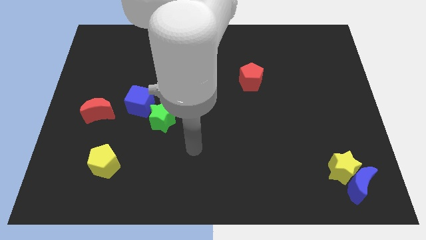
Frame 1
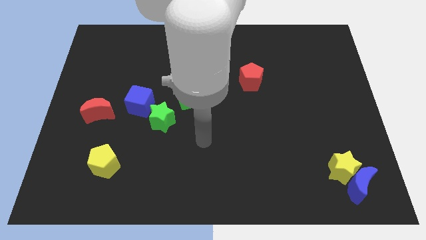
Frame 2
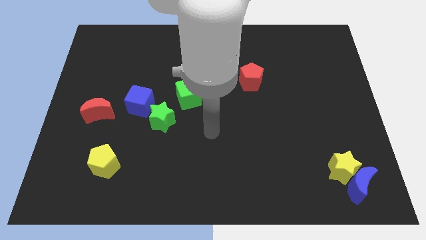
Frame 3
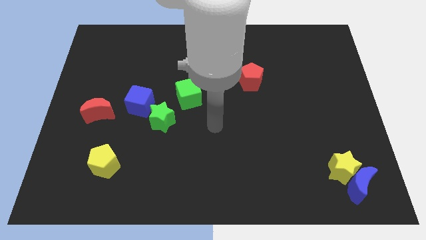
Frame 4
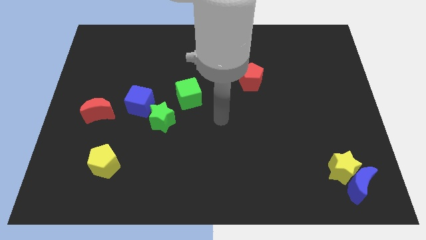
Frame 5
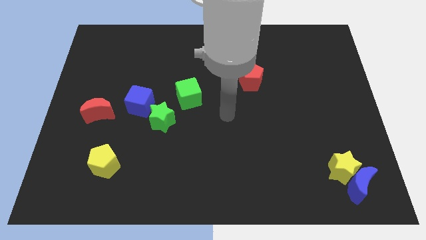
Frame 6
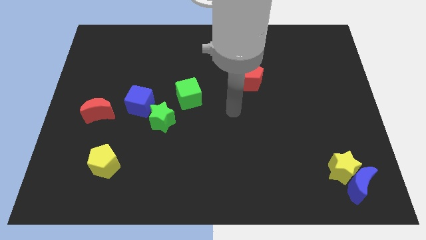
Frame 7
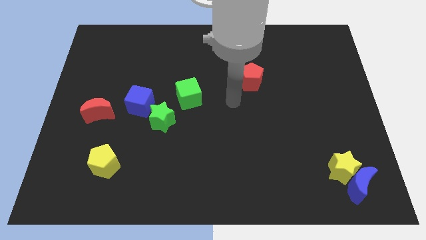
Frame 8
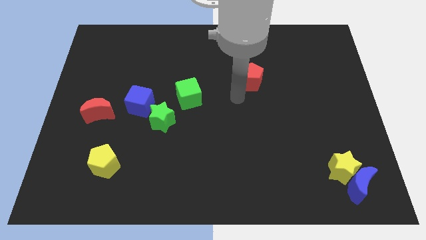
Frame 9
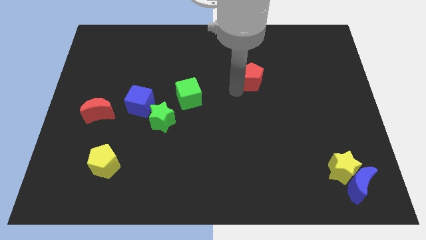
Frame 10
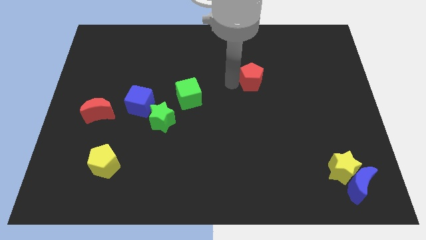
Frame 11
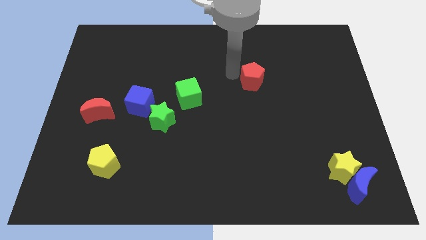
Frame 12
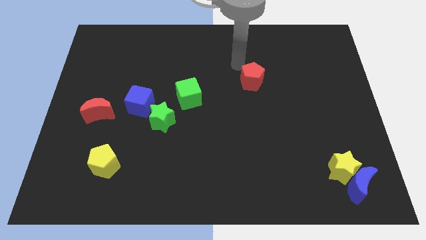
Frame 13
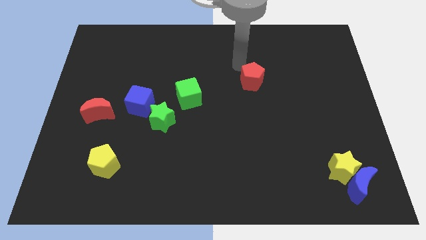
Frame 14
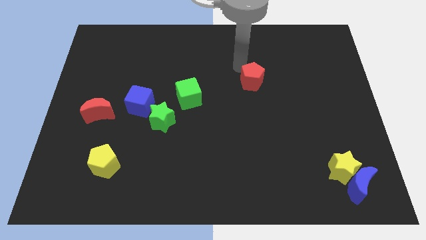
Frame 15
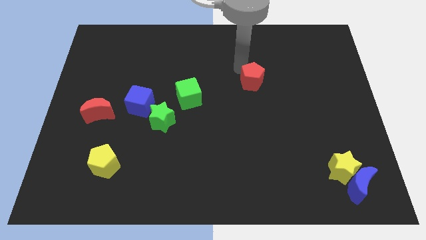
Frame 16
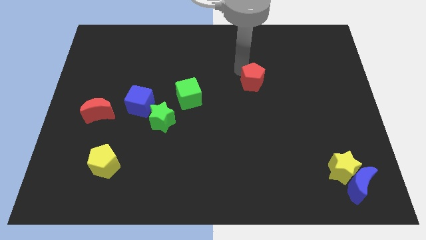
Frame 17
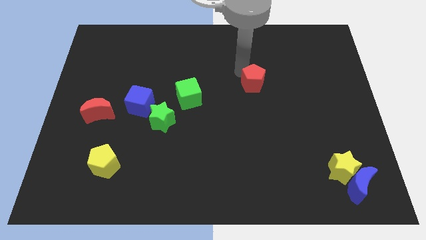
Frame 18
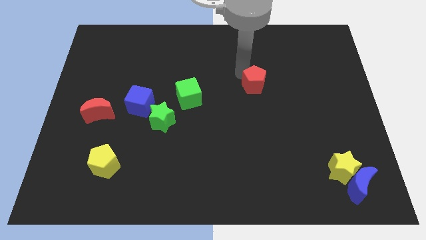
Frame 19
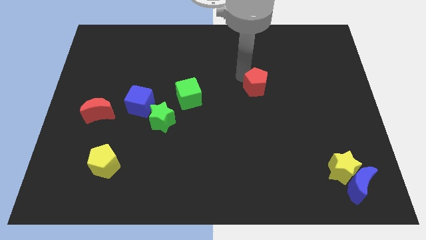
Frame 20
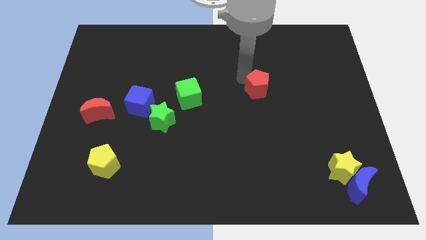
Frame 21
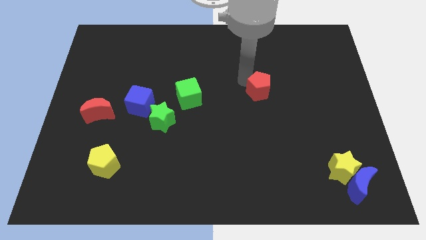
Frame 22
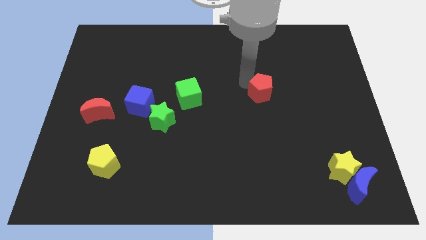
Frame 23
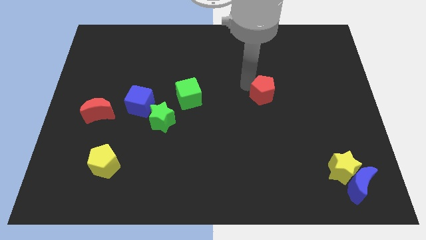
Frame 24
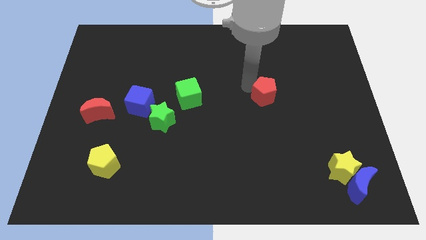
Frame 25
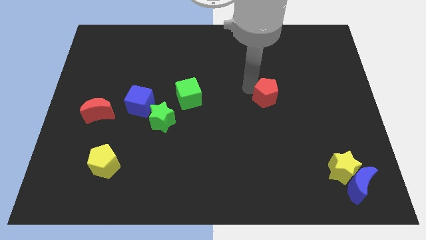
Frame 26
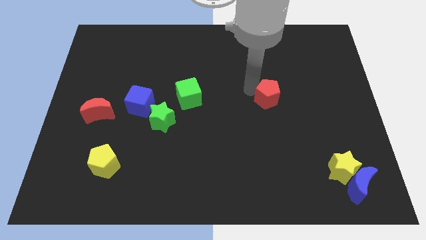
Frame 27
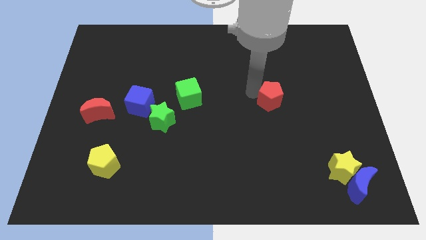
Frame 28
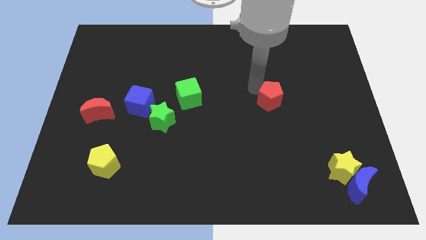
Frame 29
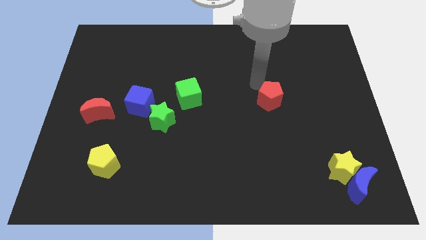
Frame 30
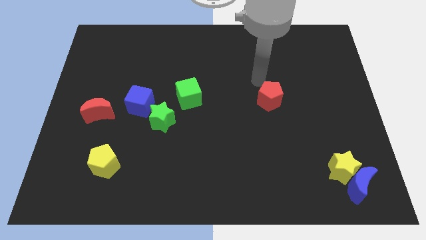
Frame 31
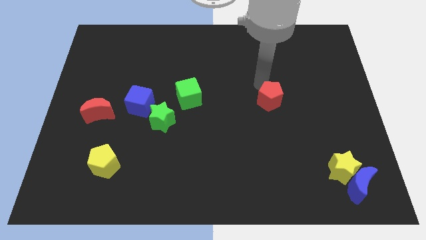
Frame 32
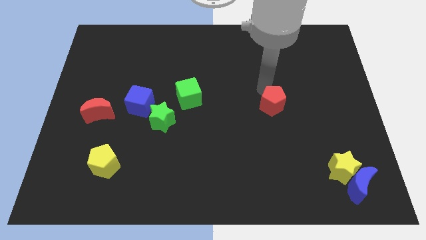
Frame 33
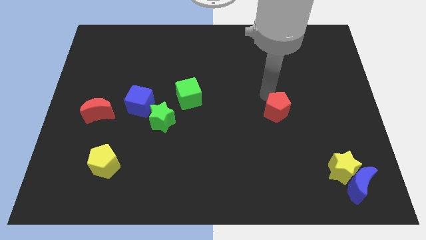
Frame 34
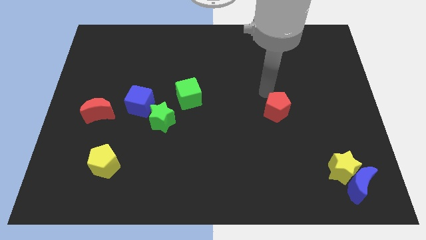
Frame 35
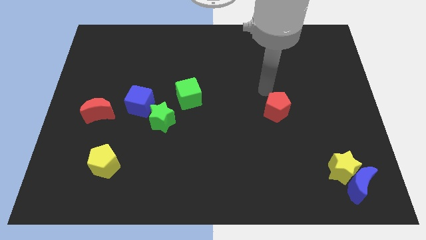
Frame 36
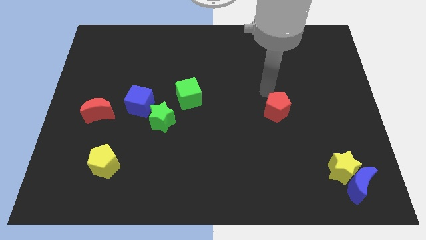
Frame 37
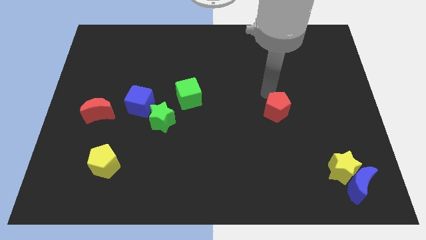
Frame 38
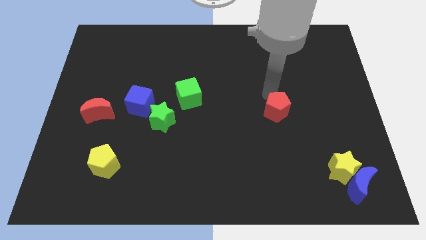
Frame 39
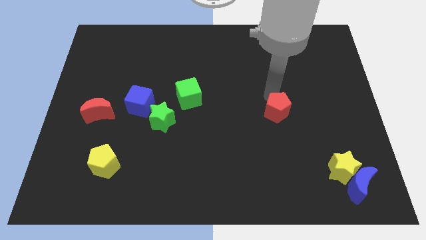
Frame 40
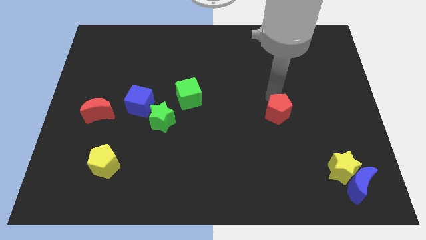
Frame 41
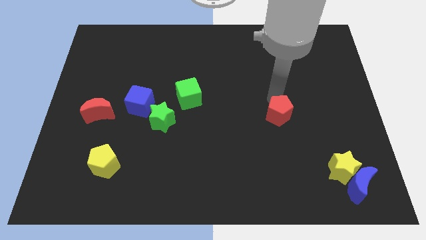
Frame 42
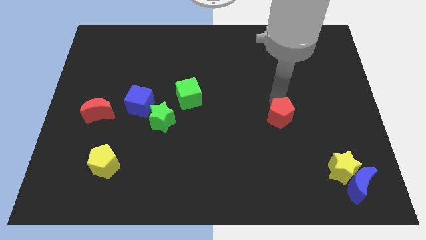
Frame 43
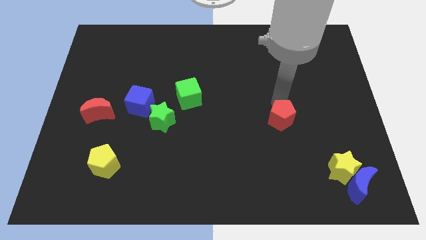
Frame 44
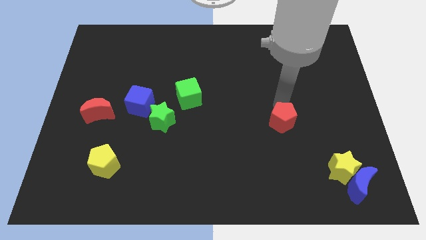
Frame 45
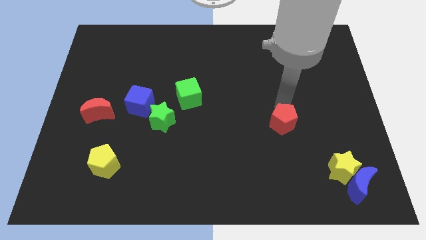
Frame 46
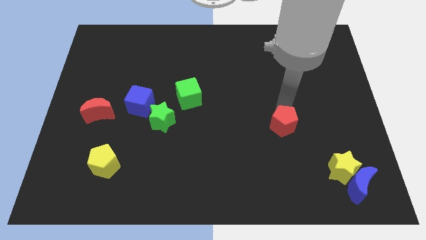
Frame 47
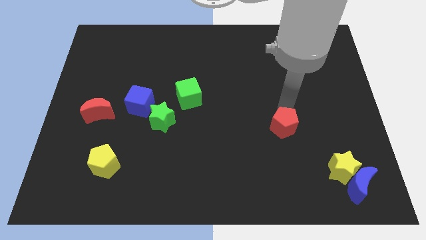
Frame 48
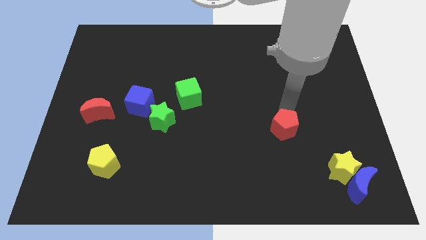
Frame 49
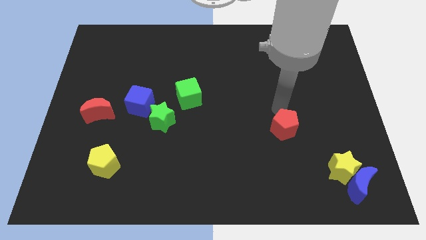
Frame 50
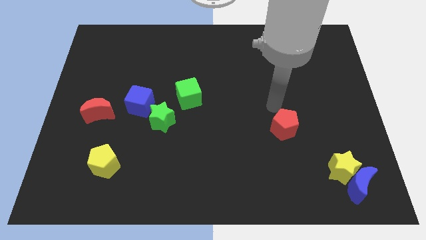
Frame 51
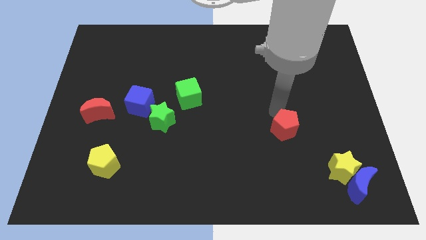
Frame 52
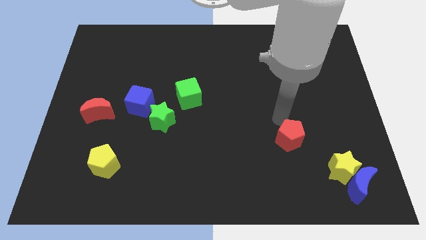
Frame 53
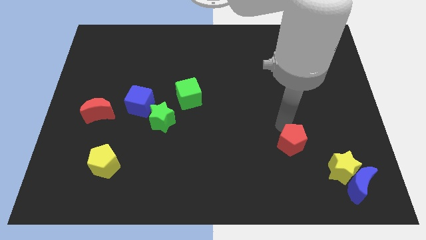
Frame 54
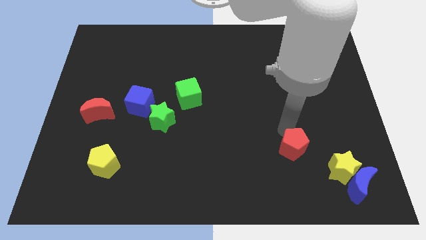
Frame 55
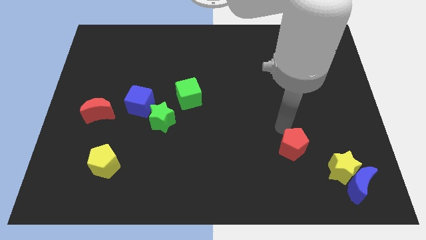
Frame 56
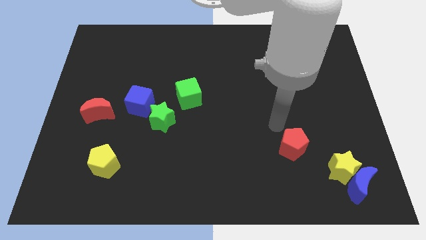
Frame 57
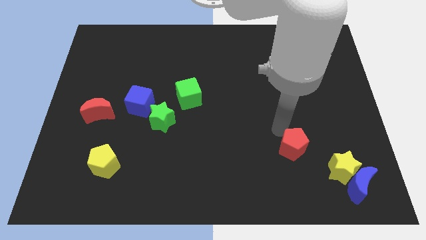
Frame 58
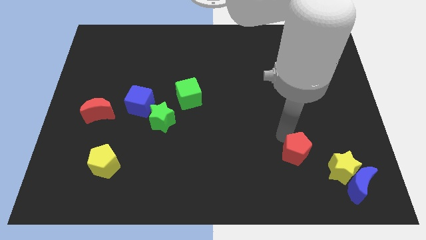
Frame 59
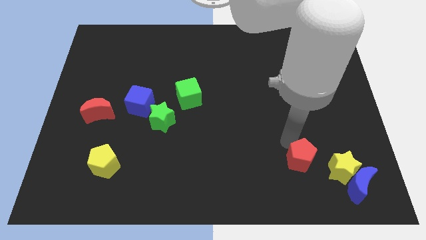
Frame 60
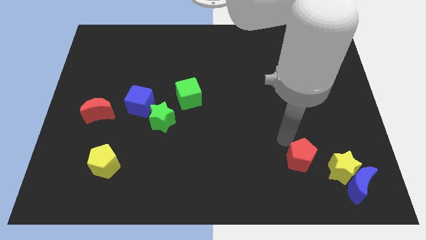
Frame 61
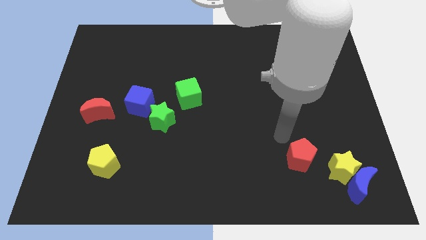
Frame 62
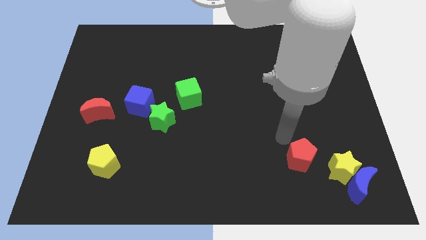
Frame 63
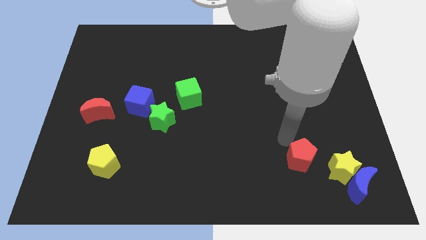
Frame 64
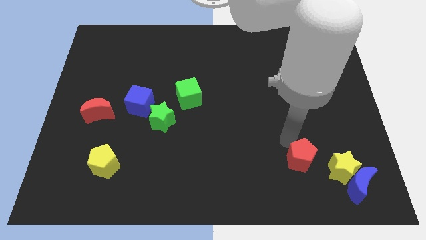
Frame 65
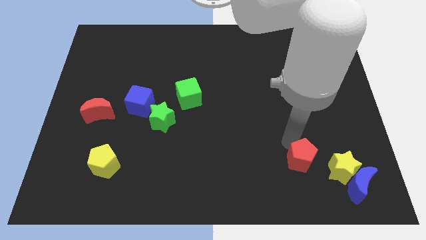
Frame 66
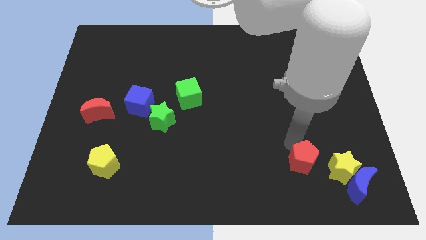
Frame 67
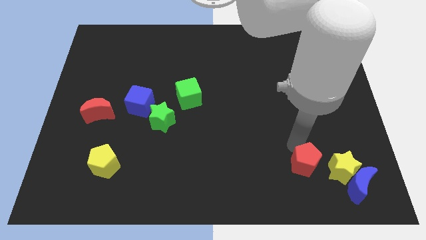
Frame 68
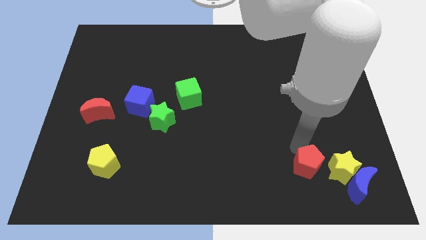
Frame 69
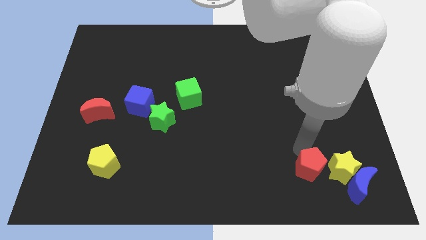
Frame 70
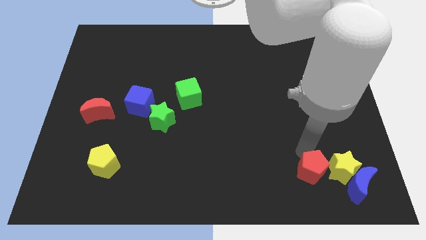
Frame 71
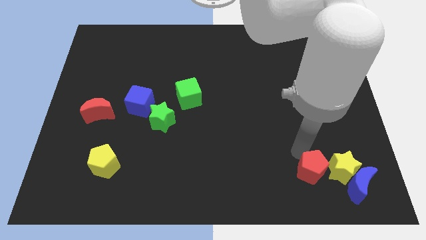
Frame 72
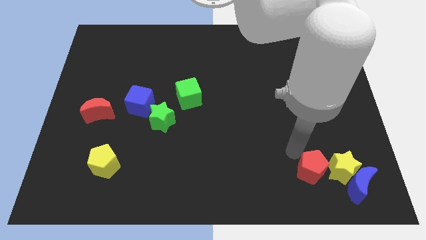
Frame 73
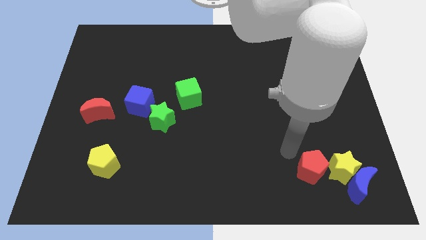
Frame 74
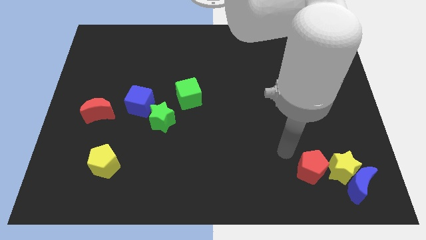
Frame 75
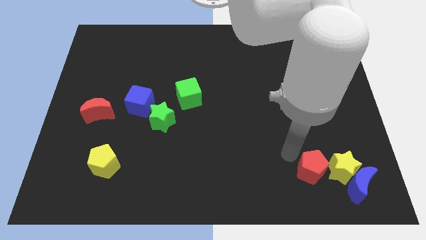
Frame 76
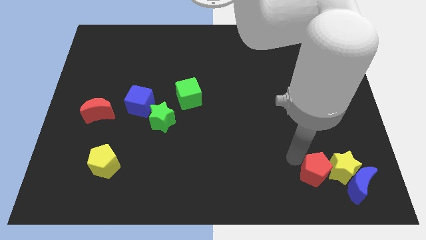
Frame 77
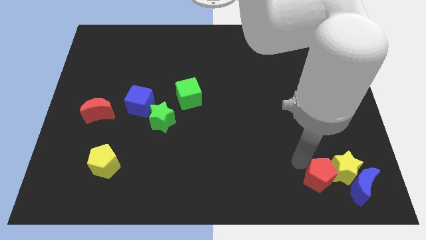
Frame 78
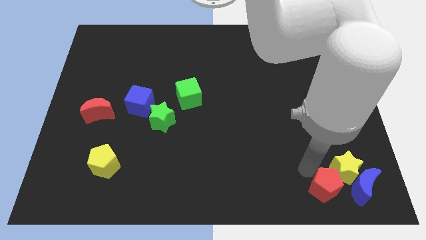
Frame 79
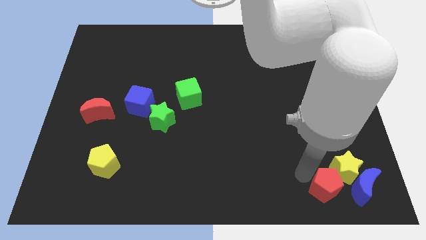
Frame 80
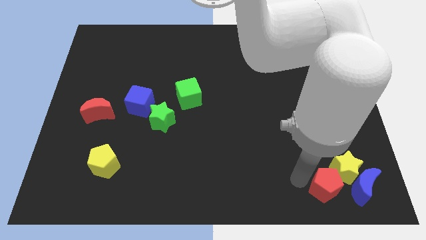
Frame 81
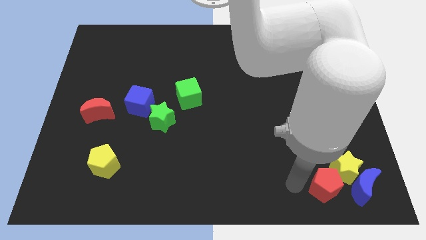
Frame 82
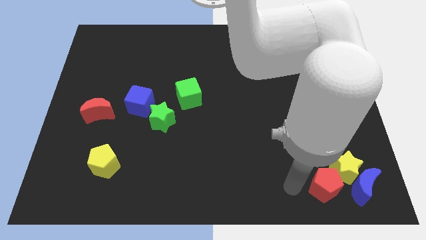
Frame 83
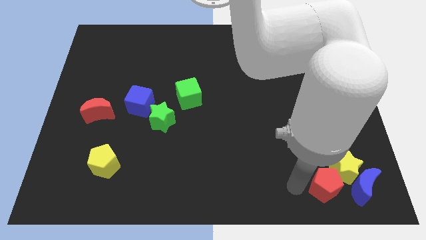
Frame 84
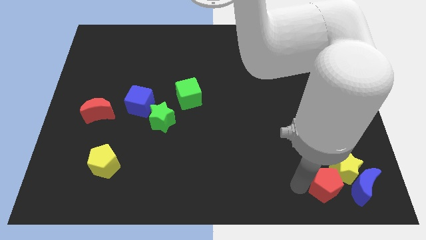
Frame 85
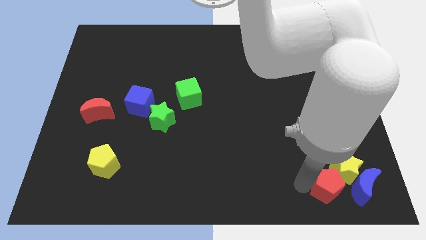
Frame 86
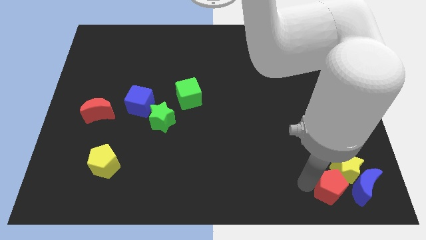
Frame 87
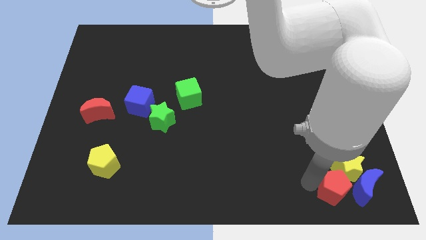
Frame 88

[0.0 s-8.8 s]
put the red pentagon next to the blue moon
